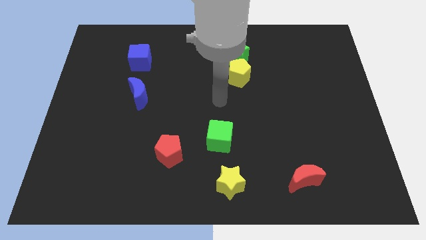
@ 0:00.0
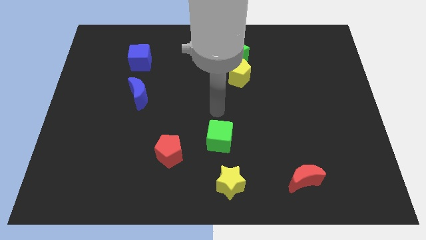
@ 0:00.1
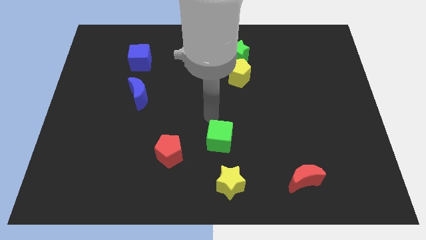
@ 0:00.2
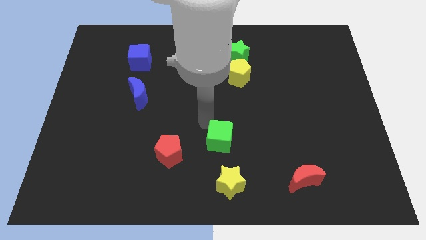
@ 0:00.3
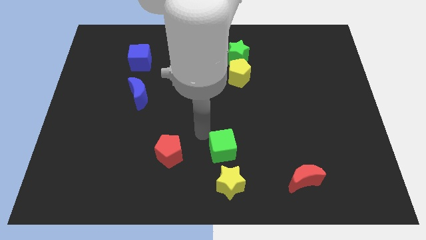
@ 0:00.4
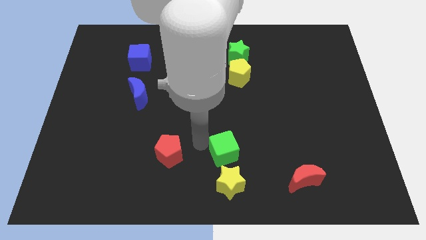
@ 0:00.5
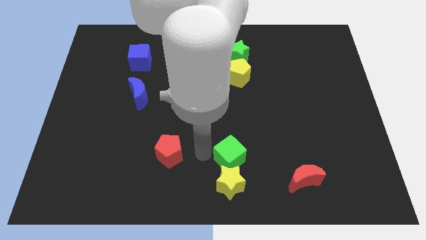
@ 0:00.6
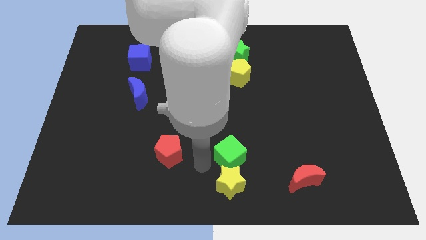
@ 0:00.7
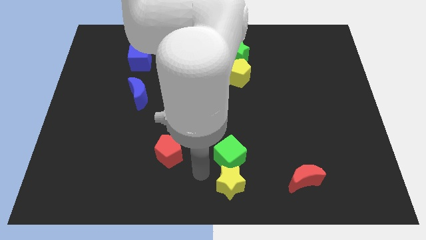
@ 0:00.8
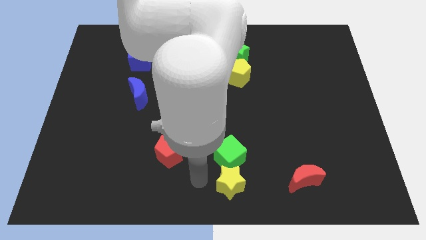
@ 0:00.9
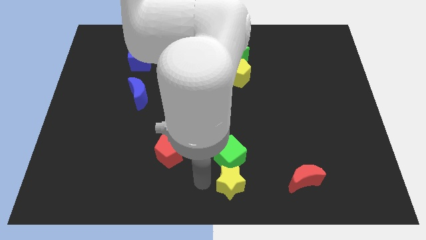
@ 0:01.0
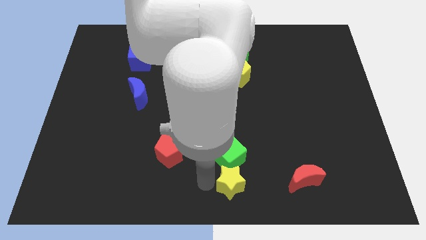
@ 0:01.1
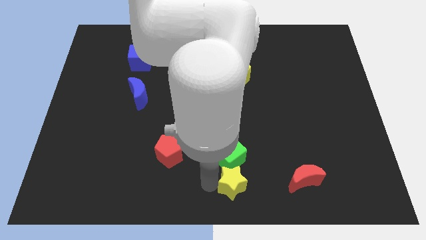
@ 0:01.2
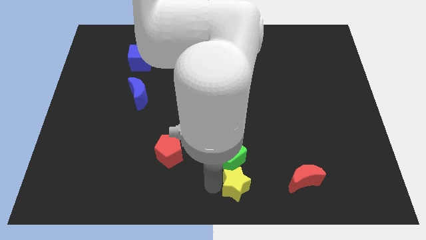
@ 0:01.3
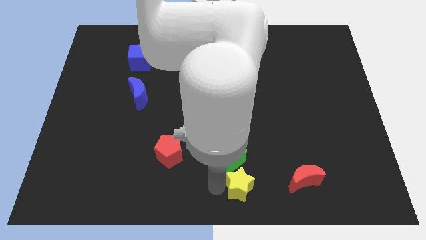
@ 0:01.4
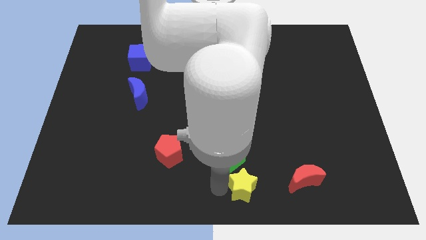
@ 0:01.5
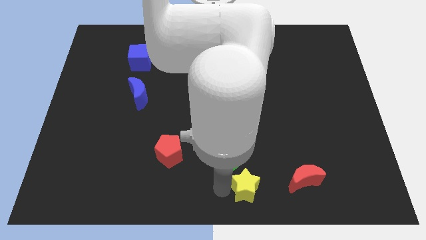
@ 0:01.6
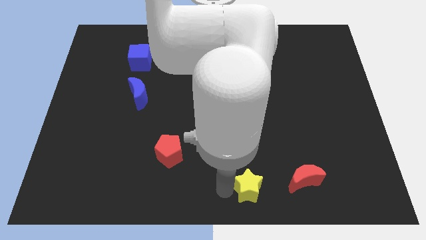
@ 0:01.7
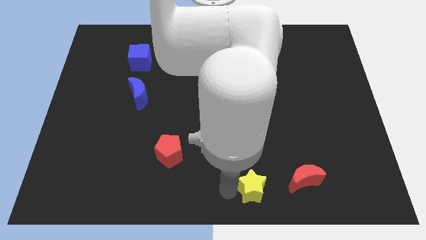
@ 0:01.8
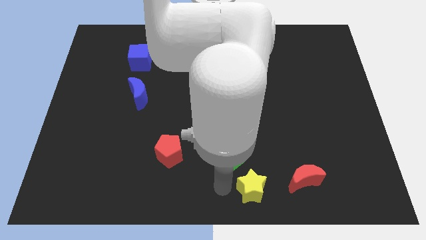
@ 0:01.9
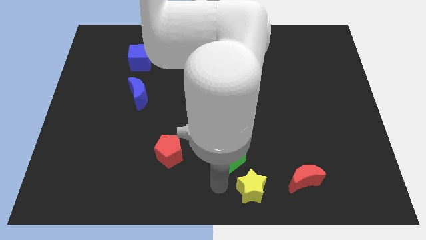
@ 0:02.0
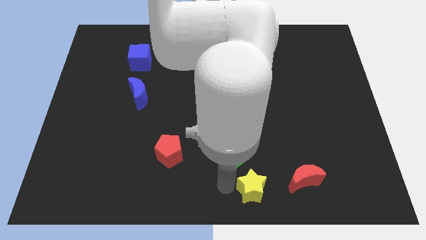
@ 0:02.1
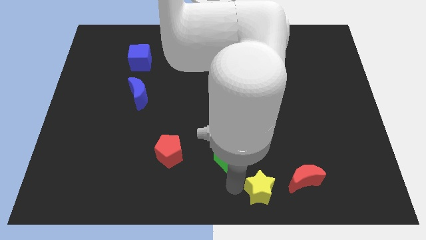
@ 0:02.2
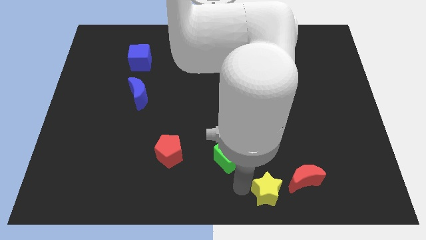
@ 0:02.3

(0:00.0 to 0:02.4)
slide the yellow star a little bit to the right

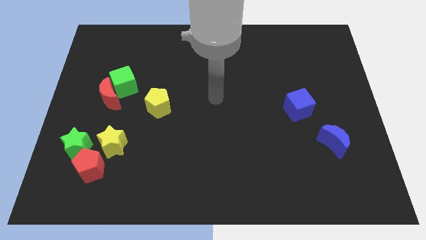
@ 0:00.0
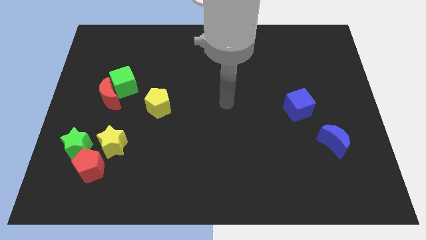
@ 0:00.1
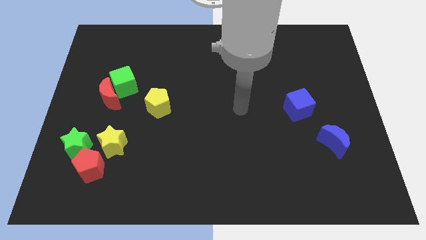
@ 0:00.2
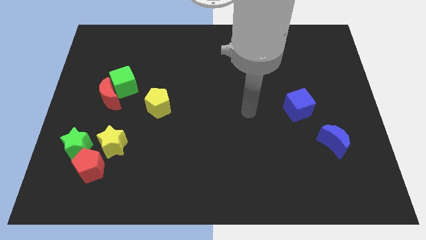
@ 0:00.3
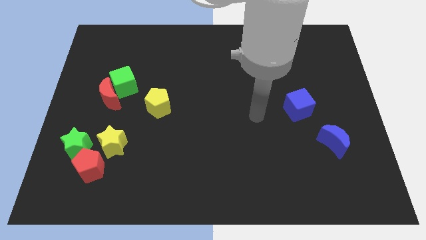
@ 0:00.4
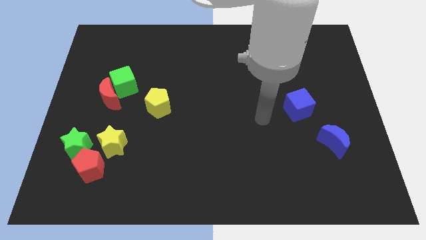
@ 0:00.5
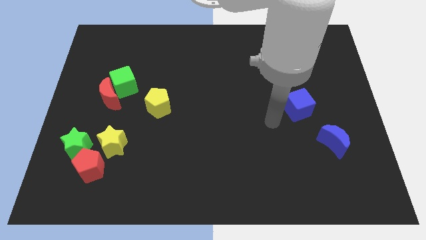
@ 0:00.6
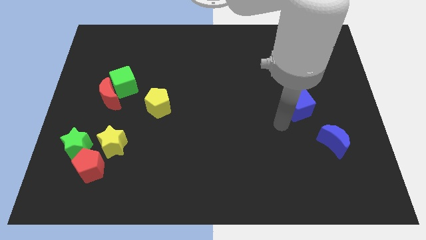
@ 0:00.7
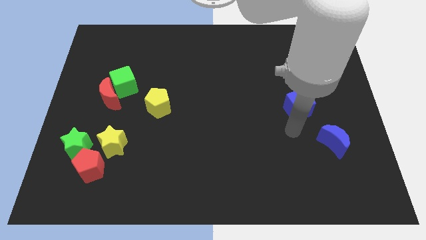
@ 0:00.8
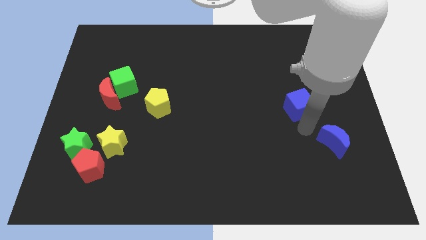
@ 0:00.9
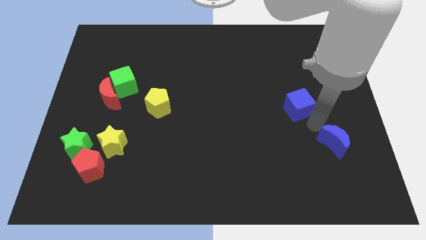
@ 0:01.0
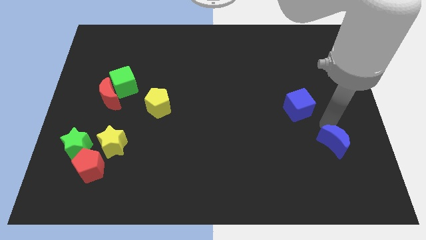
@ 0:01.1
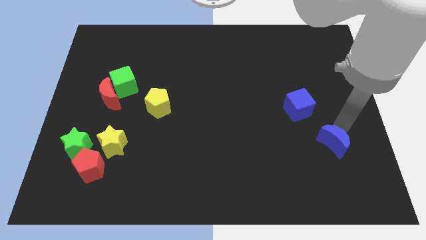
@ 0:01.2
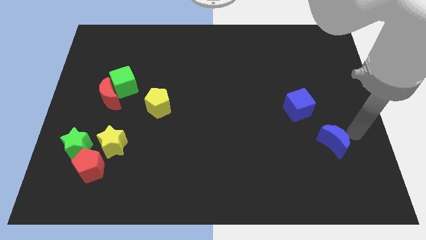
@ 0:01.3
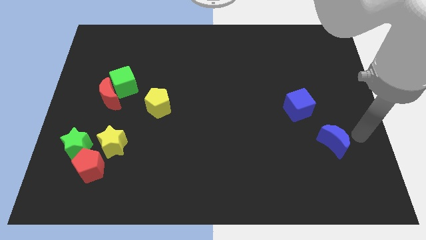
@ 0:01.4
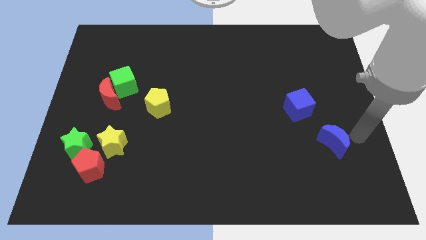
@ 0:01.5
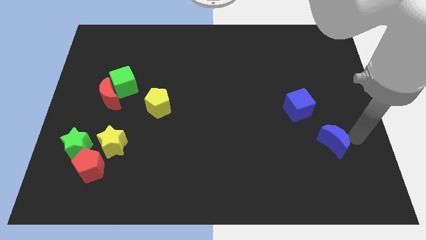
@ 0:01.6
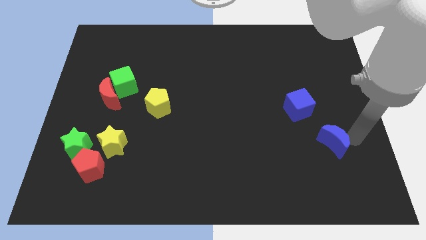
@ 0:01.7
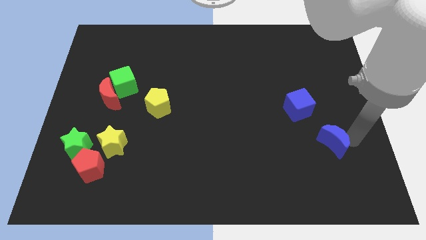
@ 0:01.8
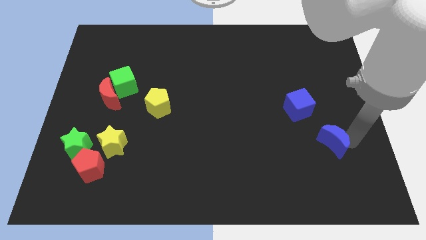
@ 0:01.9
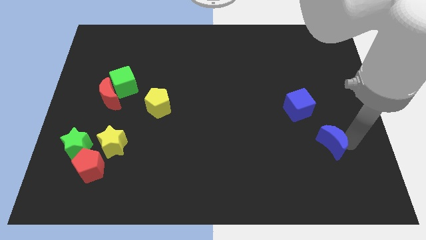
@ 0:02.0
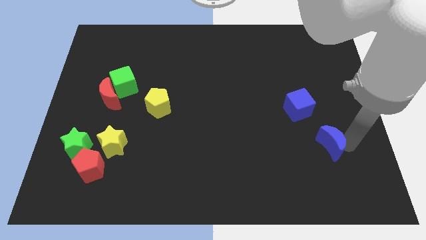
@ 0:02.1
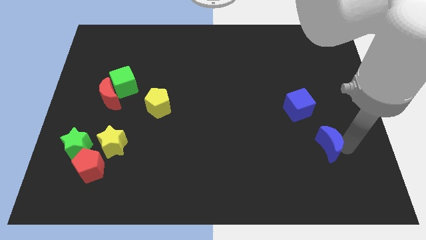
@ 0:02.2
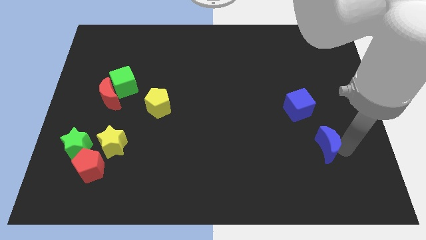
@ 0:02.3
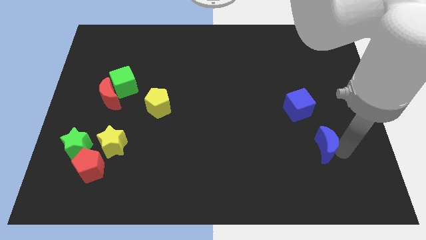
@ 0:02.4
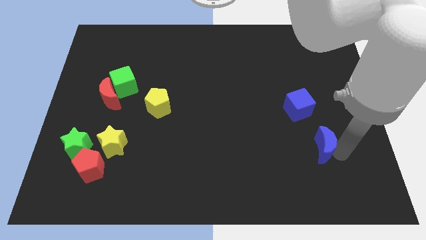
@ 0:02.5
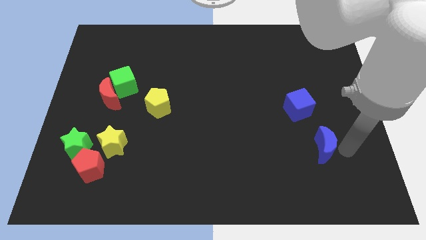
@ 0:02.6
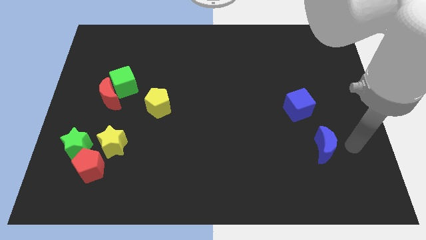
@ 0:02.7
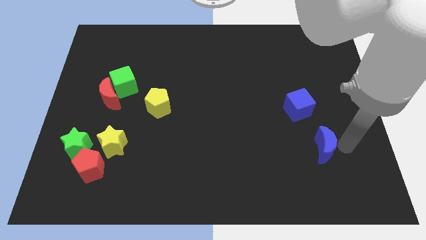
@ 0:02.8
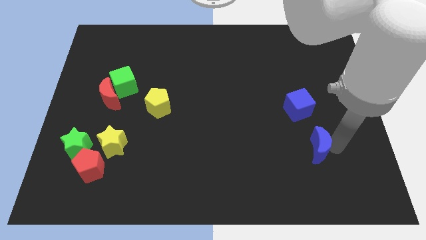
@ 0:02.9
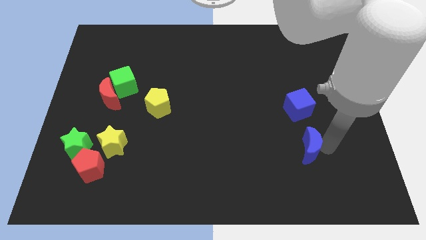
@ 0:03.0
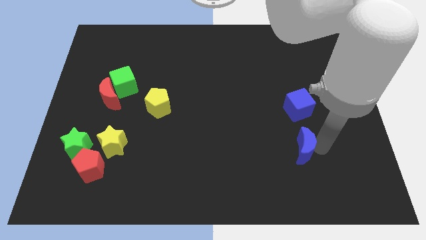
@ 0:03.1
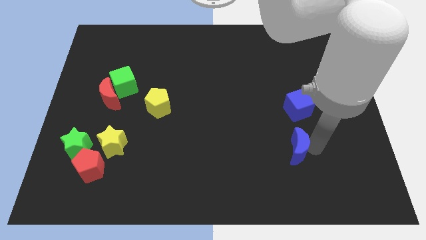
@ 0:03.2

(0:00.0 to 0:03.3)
push the blue moon somewhat left

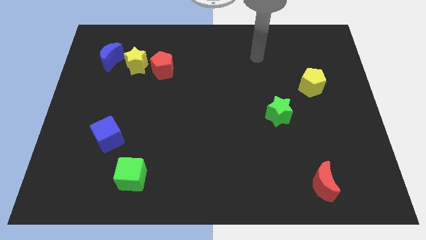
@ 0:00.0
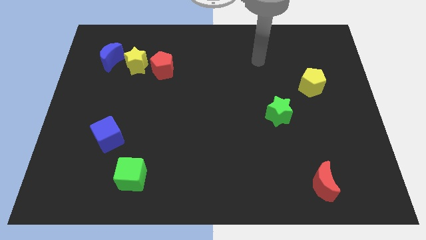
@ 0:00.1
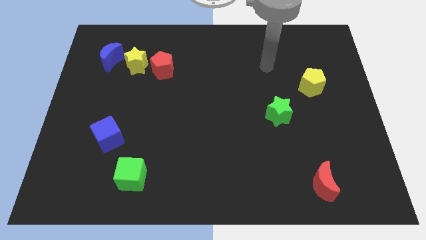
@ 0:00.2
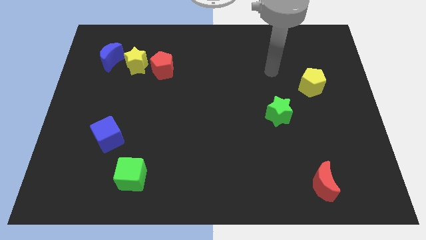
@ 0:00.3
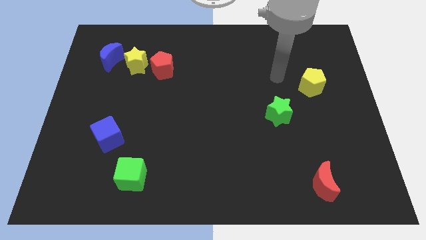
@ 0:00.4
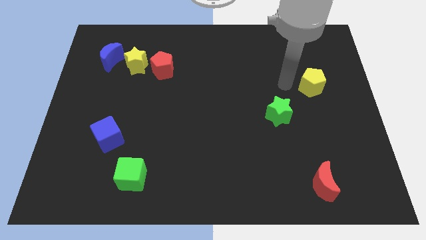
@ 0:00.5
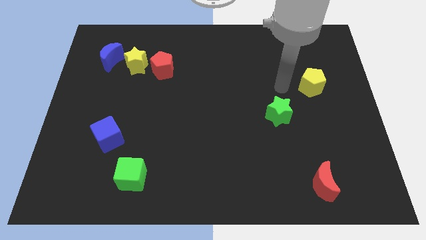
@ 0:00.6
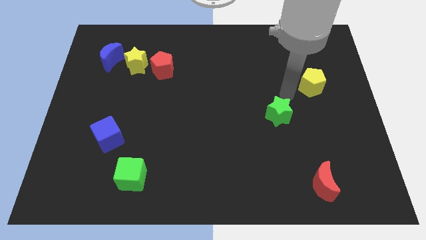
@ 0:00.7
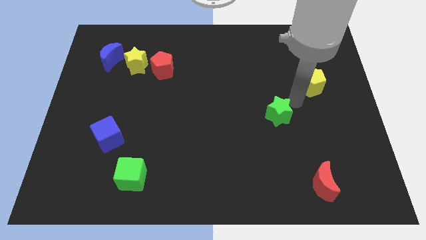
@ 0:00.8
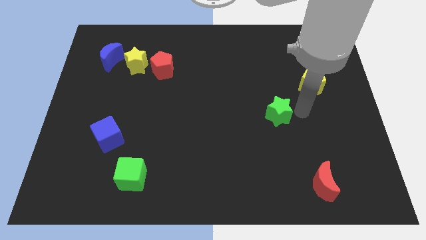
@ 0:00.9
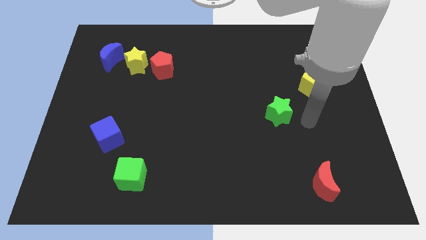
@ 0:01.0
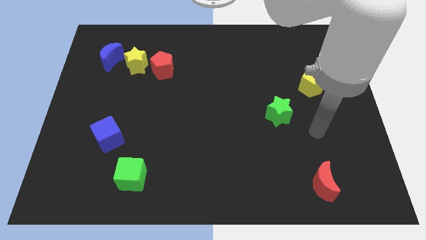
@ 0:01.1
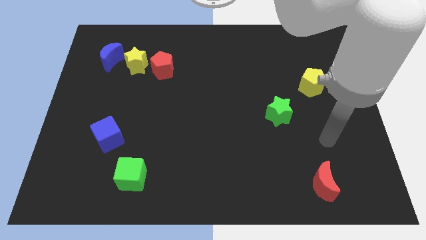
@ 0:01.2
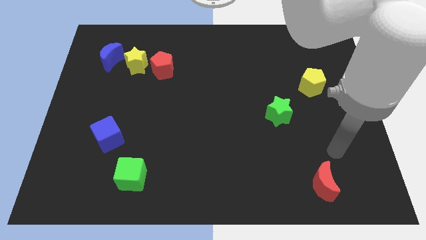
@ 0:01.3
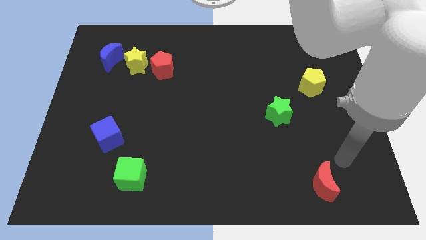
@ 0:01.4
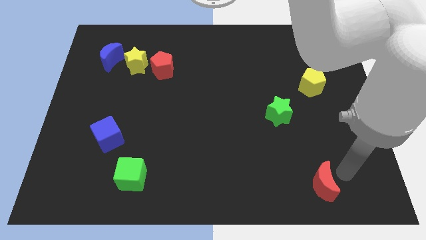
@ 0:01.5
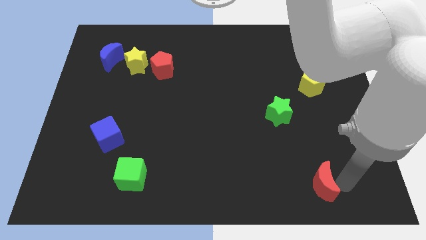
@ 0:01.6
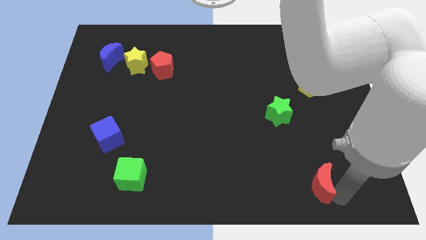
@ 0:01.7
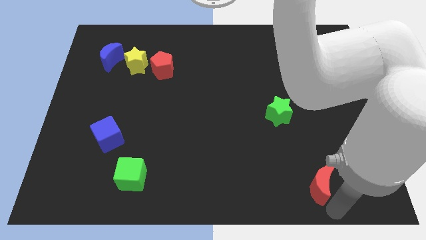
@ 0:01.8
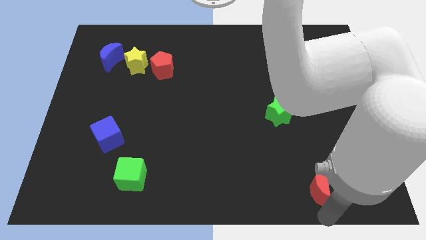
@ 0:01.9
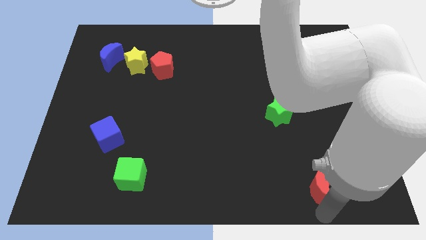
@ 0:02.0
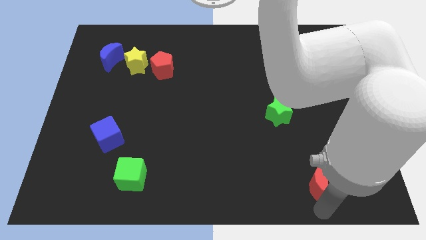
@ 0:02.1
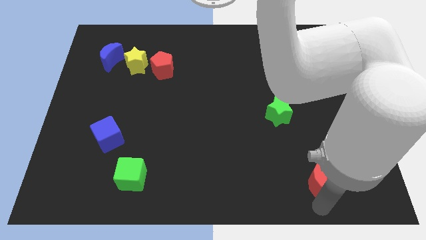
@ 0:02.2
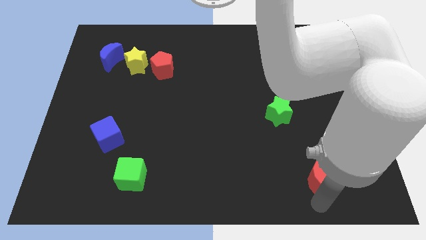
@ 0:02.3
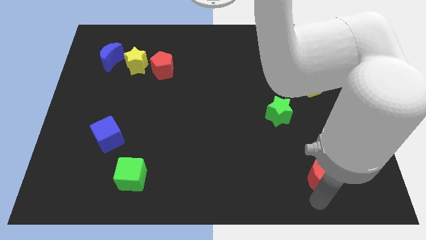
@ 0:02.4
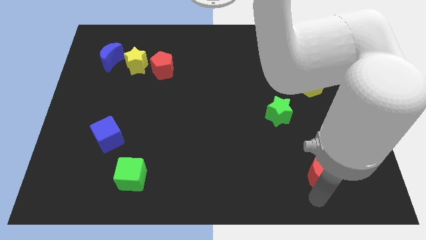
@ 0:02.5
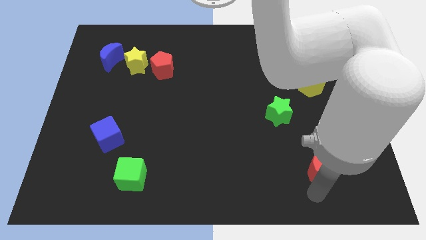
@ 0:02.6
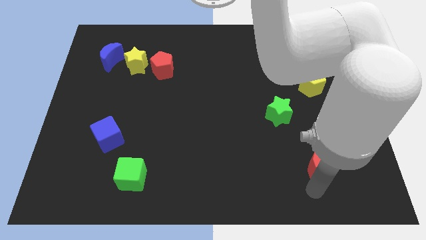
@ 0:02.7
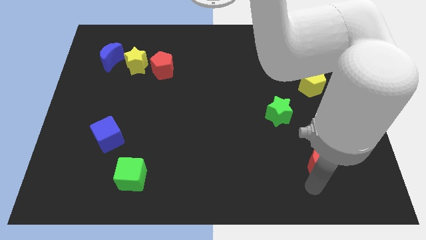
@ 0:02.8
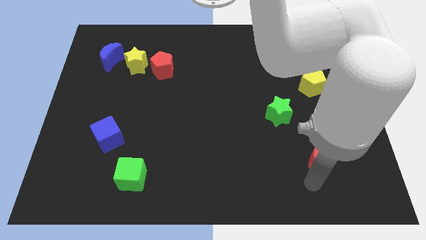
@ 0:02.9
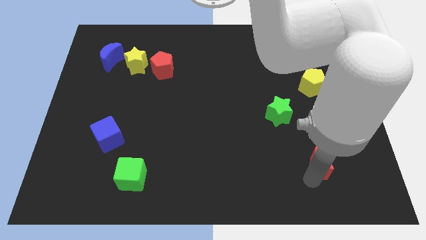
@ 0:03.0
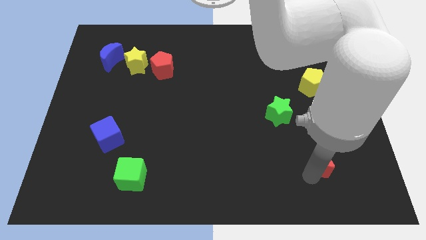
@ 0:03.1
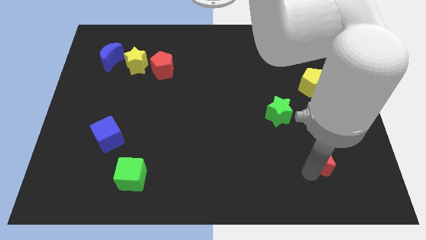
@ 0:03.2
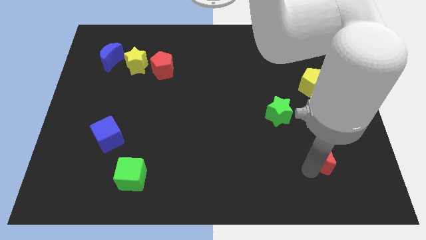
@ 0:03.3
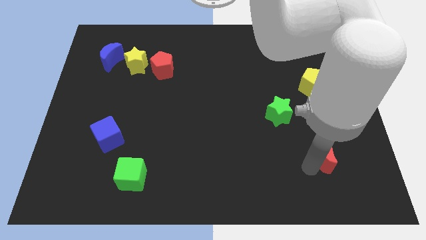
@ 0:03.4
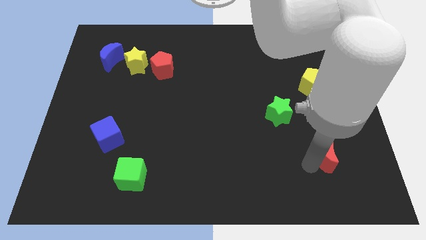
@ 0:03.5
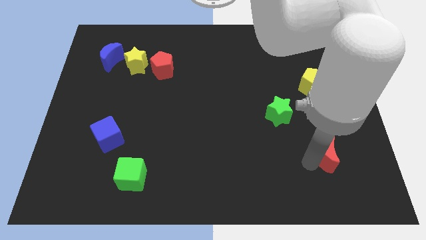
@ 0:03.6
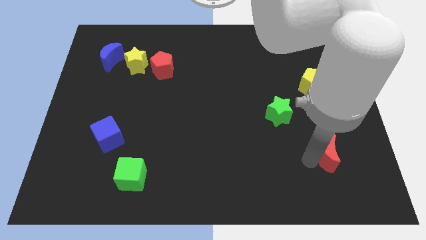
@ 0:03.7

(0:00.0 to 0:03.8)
push the red moon up somewhat
